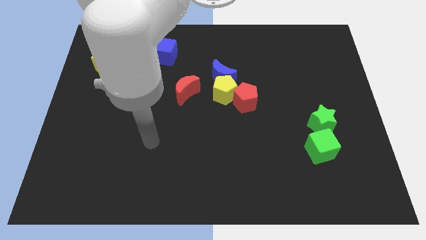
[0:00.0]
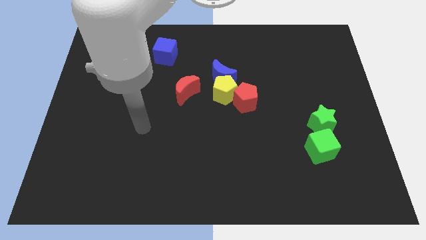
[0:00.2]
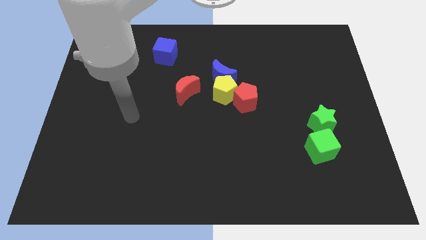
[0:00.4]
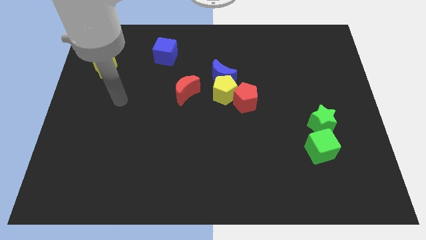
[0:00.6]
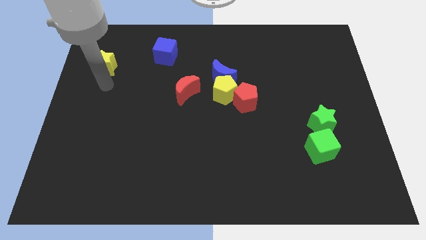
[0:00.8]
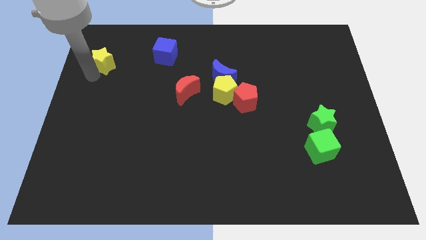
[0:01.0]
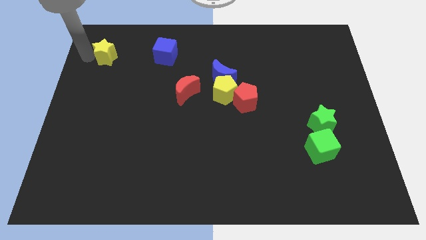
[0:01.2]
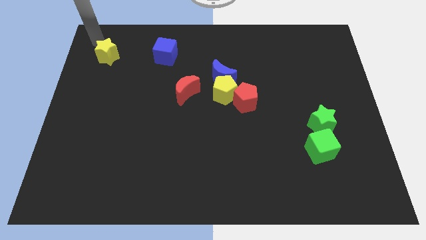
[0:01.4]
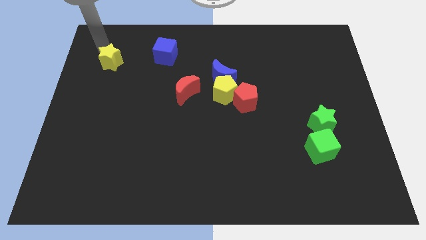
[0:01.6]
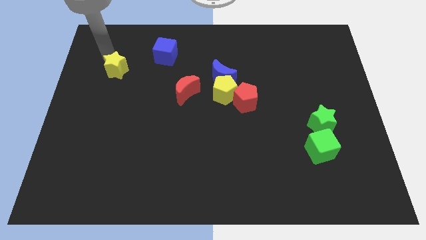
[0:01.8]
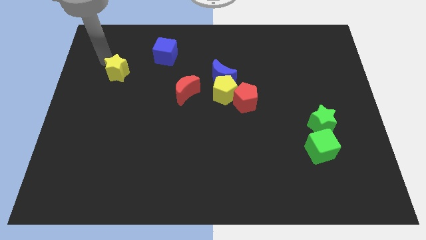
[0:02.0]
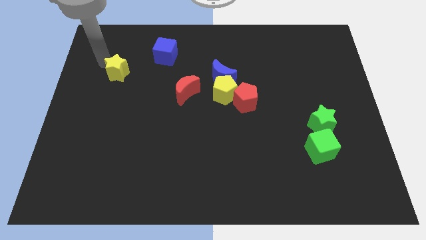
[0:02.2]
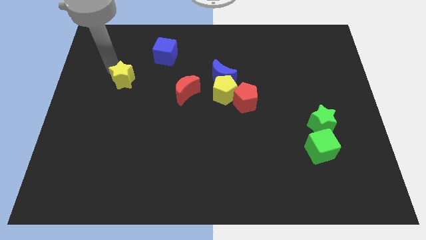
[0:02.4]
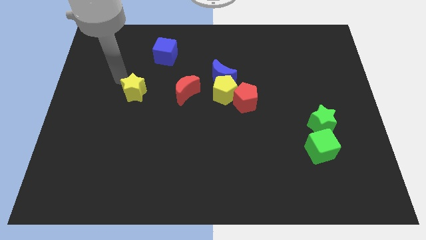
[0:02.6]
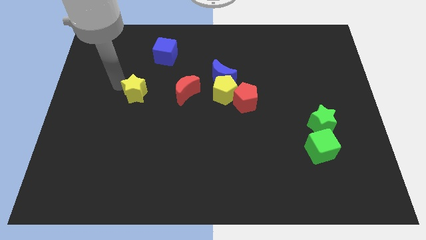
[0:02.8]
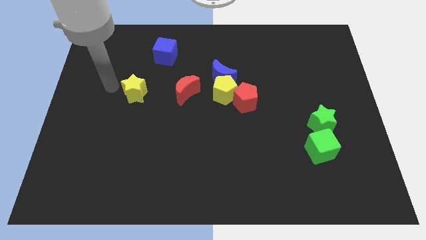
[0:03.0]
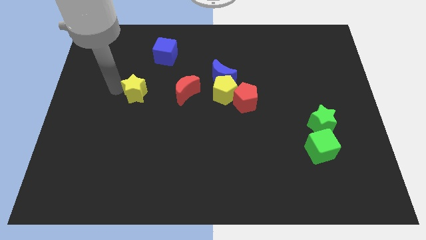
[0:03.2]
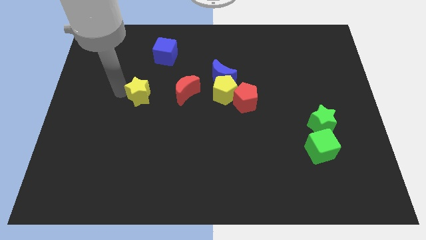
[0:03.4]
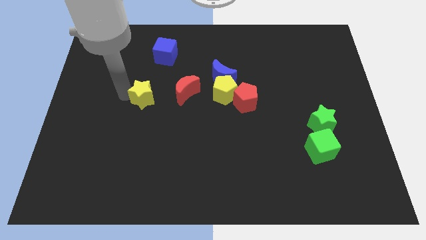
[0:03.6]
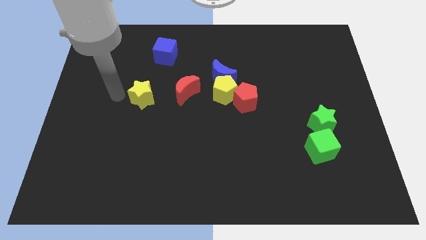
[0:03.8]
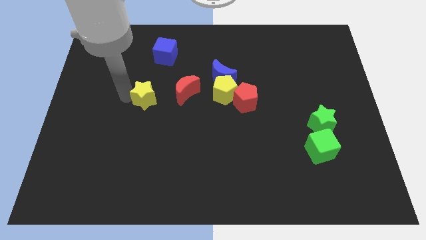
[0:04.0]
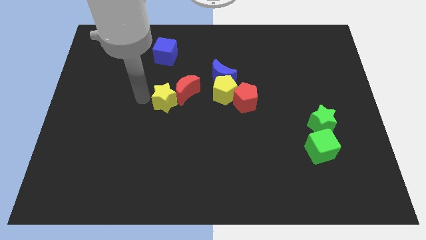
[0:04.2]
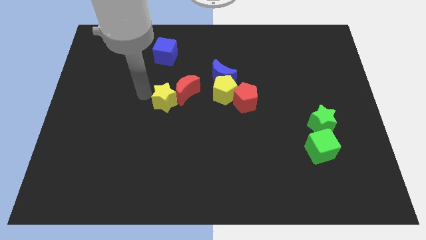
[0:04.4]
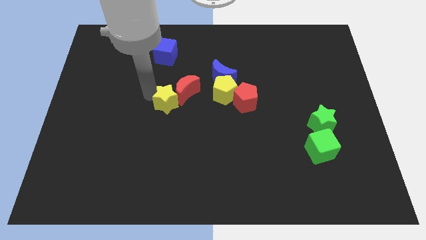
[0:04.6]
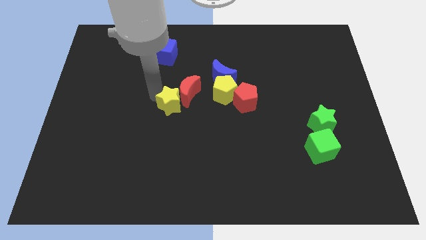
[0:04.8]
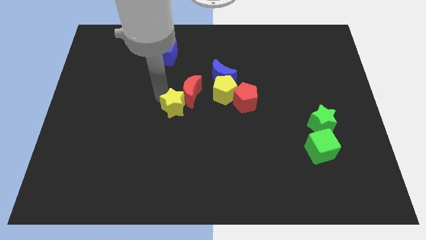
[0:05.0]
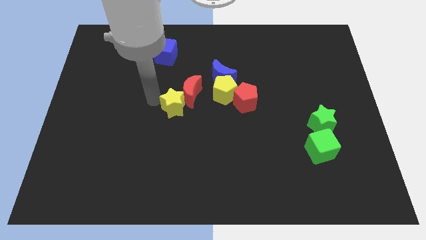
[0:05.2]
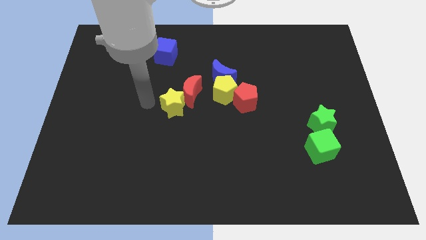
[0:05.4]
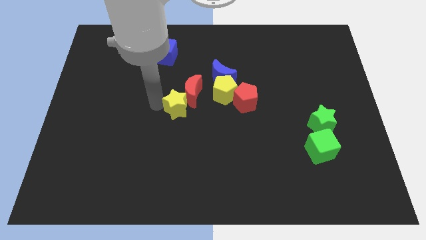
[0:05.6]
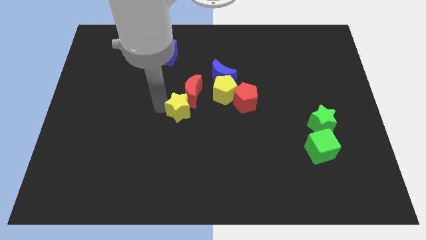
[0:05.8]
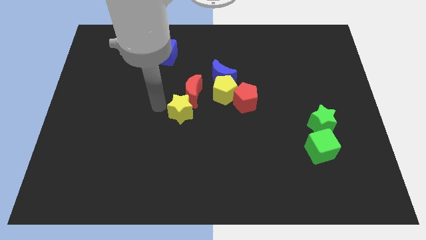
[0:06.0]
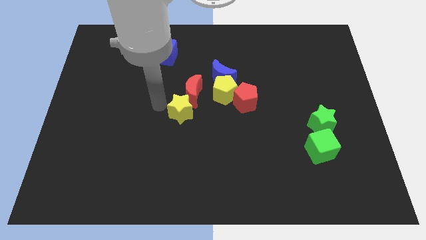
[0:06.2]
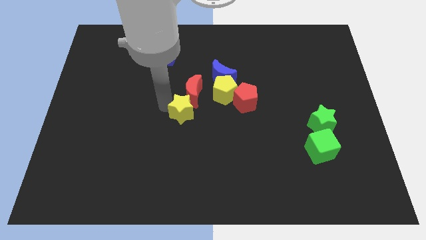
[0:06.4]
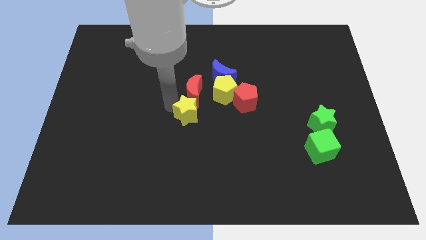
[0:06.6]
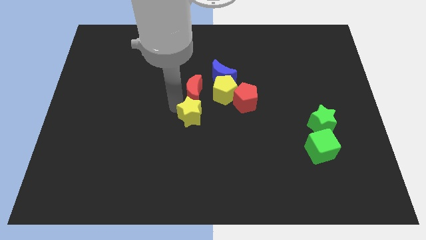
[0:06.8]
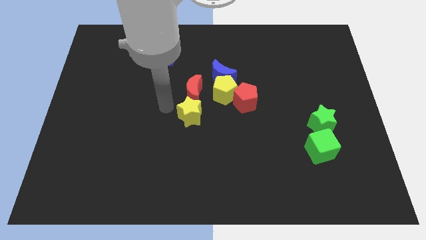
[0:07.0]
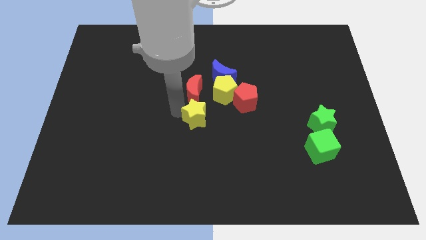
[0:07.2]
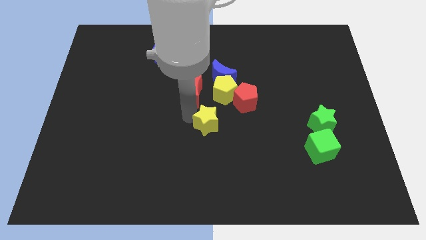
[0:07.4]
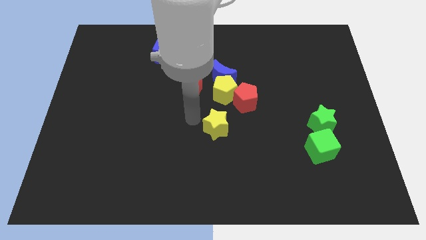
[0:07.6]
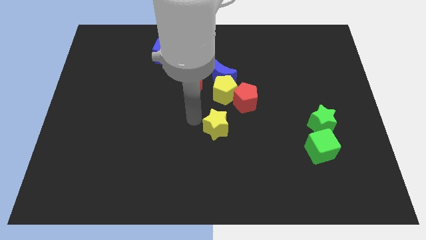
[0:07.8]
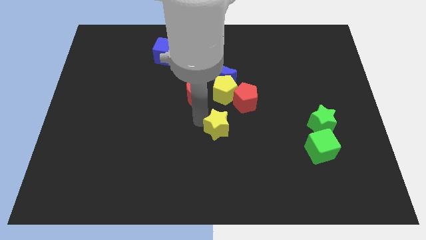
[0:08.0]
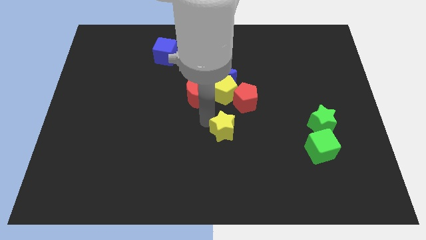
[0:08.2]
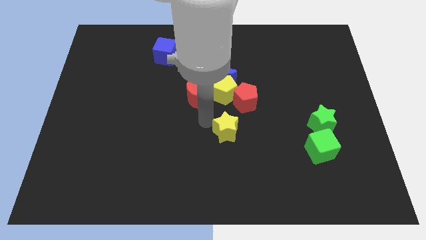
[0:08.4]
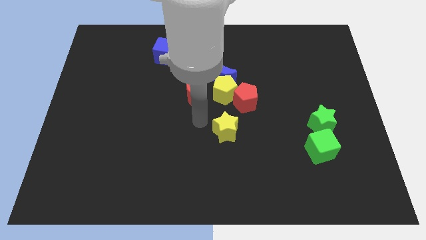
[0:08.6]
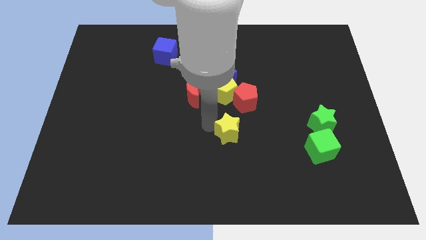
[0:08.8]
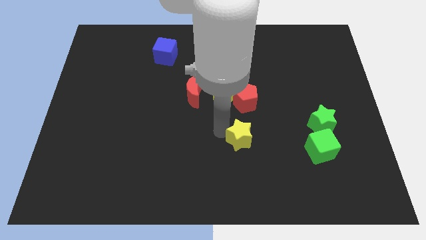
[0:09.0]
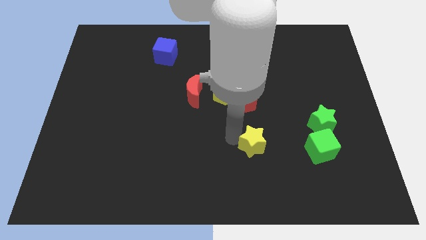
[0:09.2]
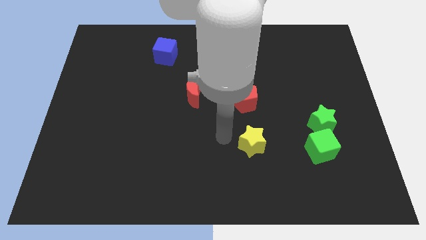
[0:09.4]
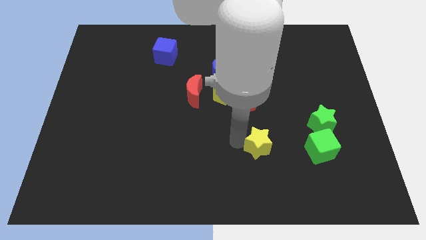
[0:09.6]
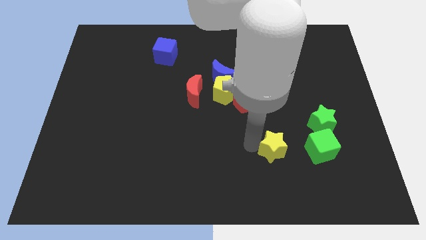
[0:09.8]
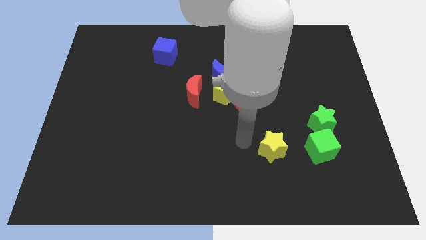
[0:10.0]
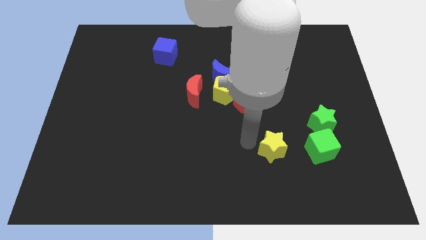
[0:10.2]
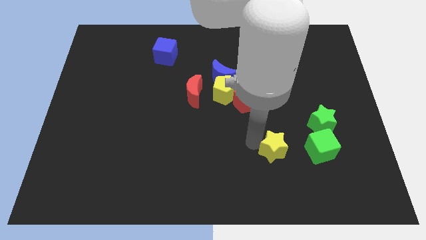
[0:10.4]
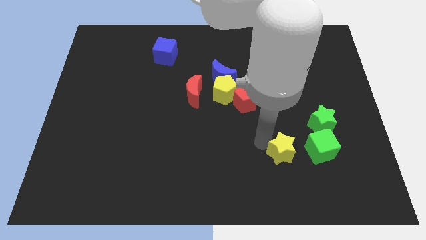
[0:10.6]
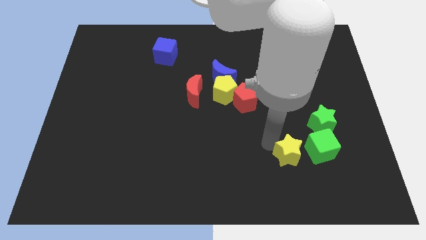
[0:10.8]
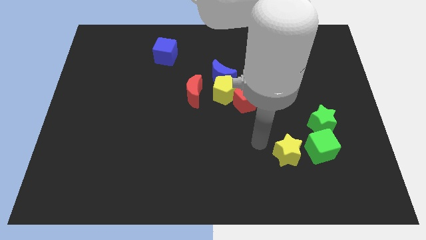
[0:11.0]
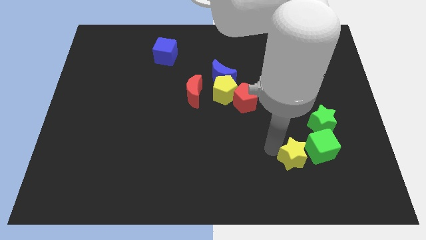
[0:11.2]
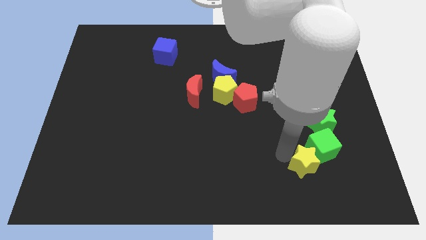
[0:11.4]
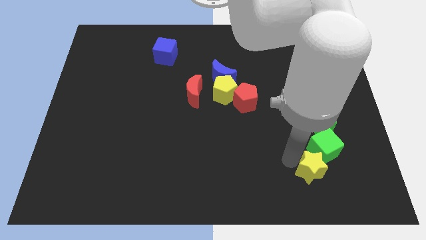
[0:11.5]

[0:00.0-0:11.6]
slide the yellow star to the bottom of the green star
